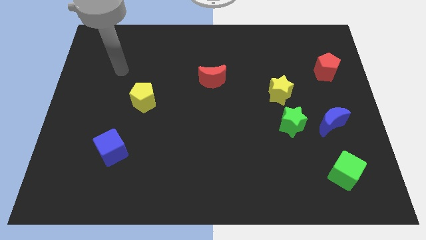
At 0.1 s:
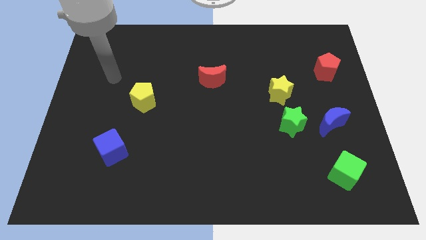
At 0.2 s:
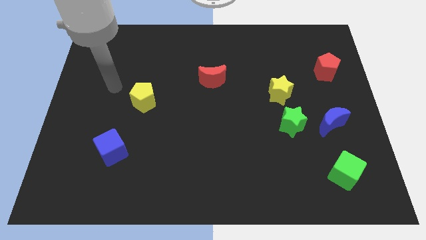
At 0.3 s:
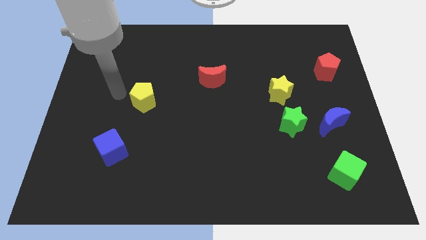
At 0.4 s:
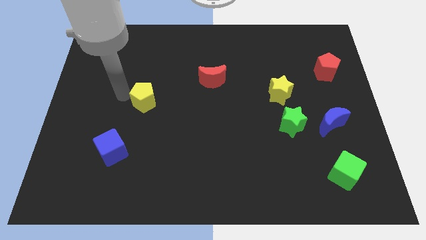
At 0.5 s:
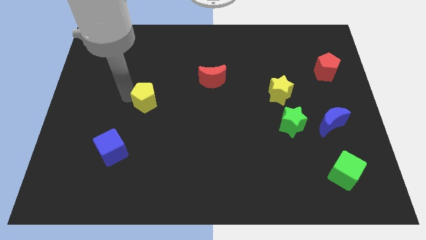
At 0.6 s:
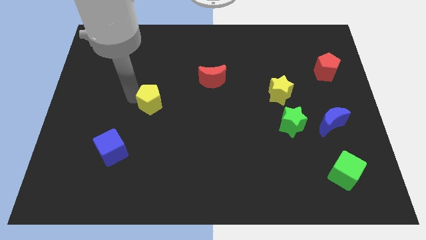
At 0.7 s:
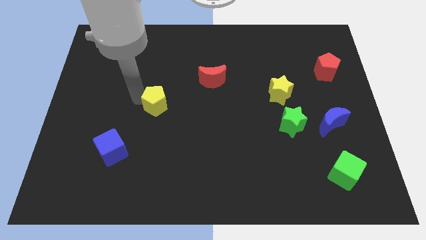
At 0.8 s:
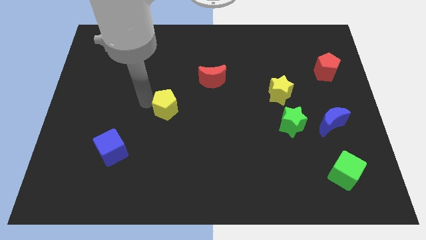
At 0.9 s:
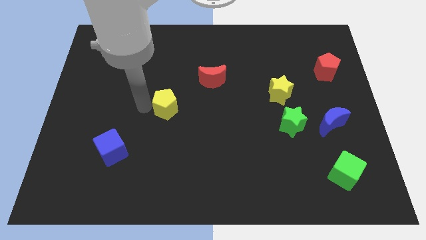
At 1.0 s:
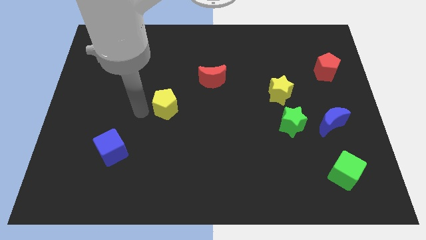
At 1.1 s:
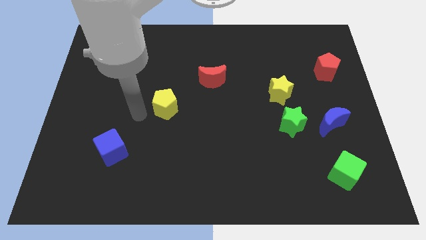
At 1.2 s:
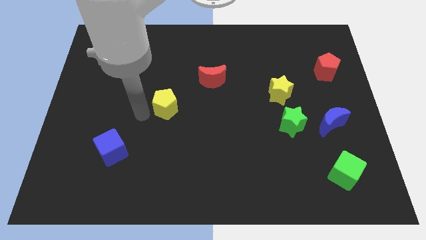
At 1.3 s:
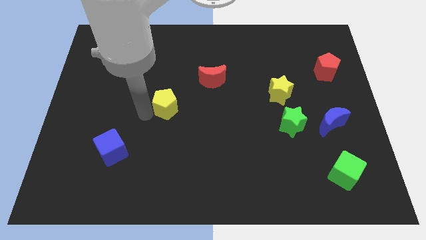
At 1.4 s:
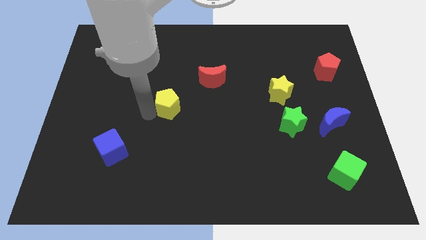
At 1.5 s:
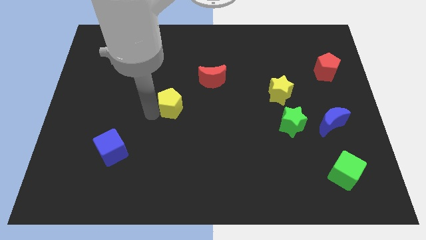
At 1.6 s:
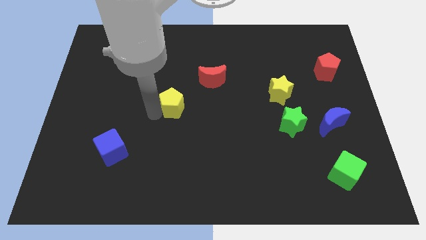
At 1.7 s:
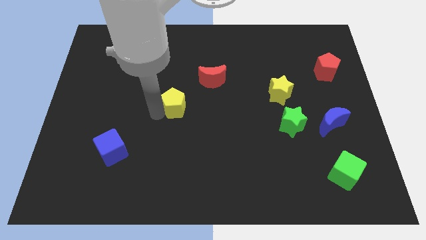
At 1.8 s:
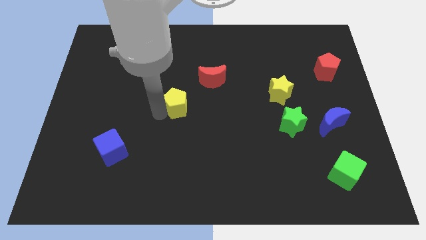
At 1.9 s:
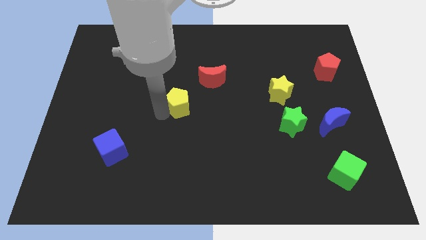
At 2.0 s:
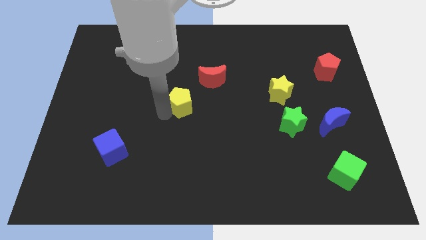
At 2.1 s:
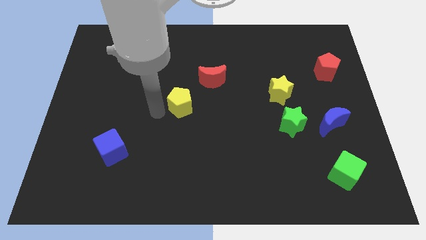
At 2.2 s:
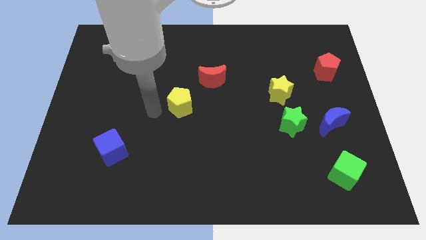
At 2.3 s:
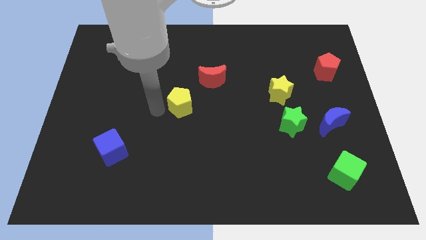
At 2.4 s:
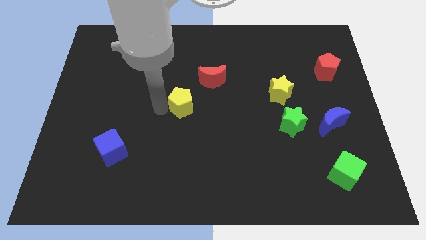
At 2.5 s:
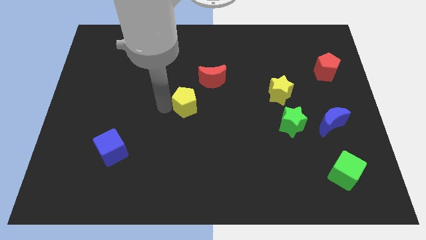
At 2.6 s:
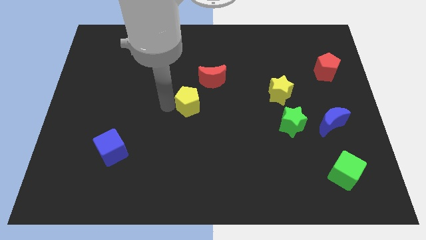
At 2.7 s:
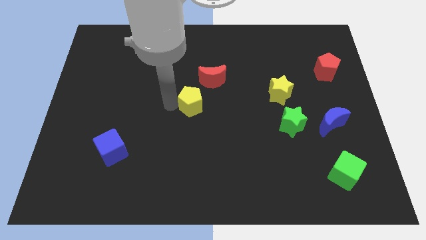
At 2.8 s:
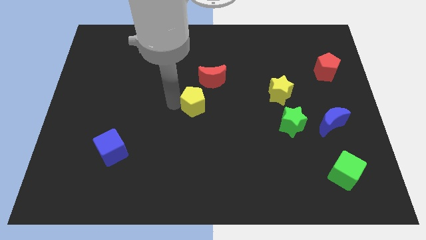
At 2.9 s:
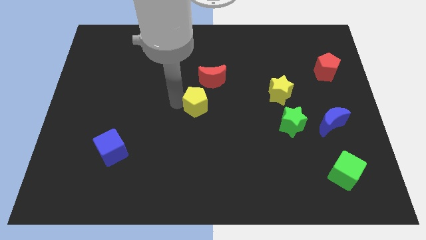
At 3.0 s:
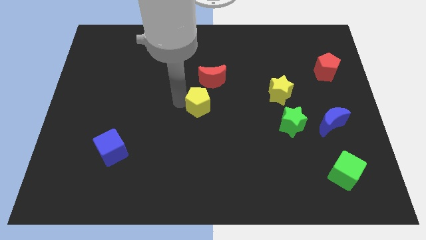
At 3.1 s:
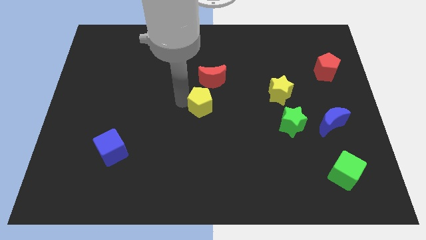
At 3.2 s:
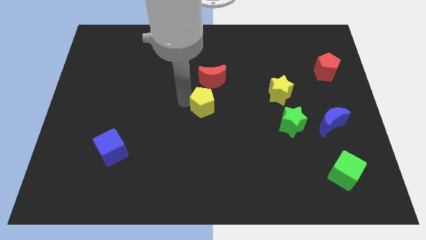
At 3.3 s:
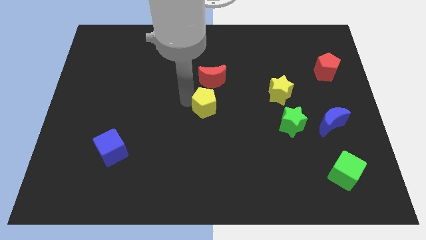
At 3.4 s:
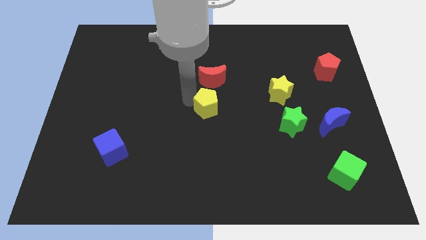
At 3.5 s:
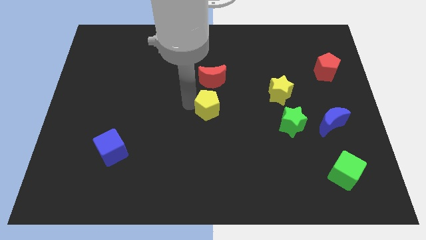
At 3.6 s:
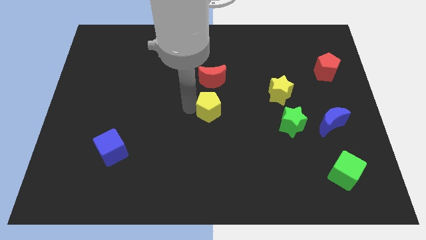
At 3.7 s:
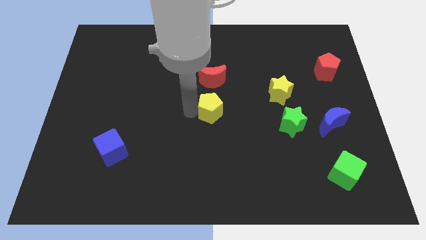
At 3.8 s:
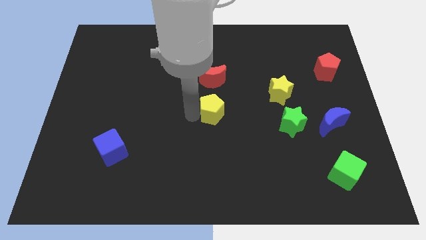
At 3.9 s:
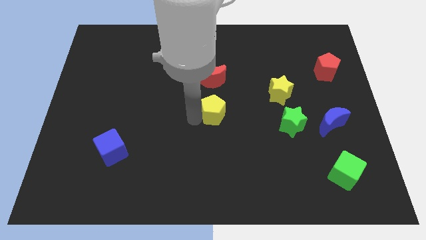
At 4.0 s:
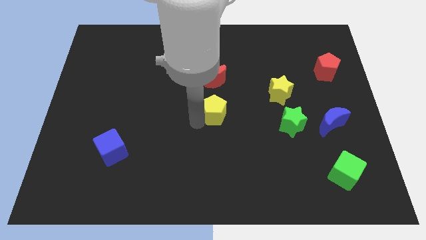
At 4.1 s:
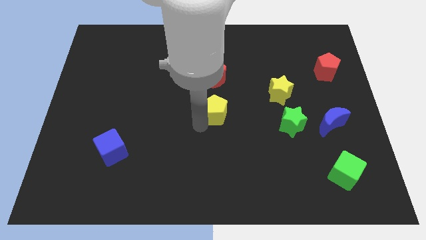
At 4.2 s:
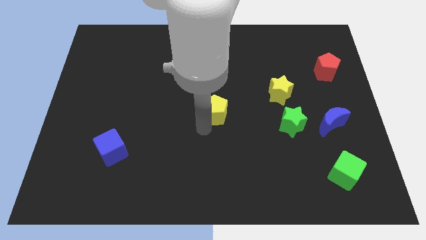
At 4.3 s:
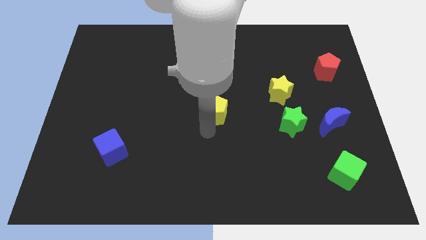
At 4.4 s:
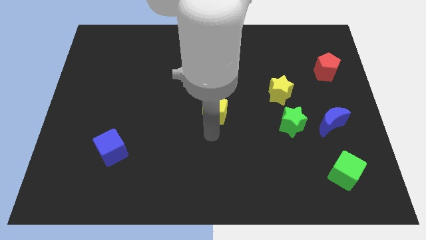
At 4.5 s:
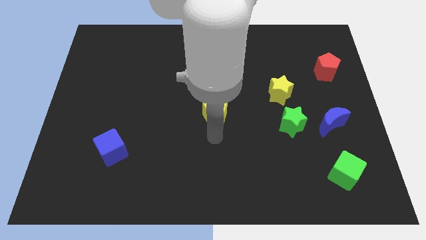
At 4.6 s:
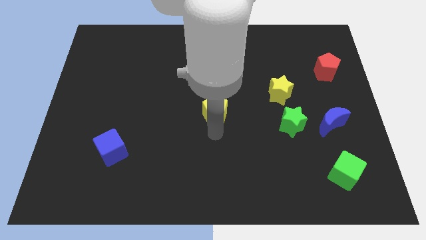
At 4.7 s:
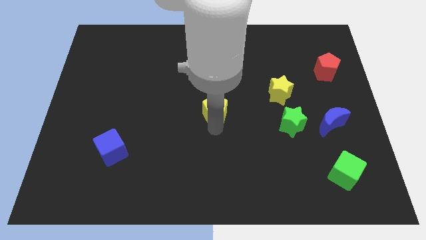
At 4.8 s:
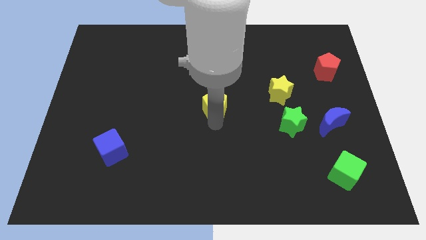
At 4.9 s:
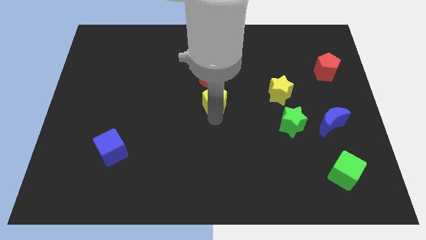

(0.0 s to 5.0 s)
slide the yellow pentagon diagonally down and to the right of the red moon

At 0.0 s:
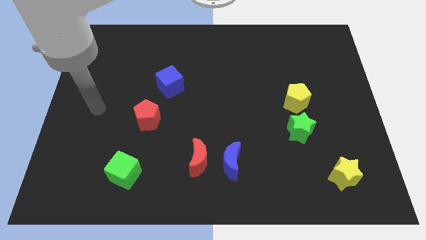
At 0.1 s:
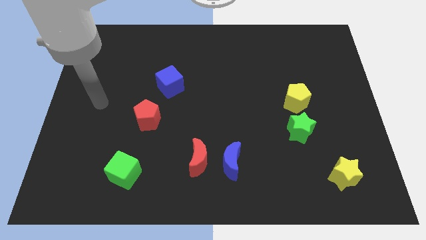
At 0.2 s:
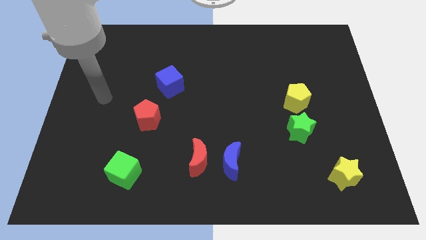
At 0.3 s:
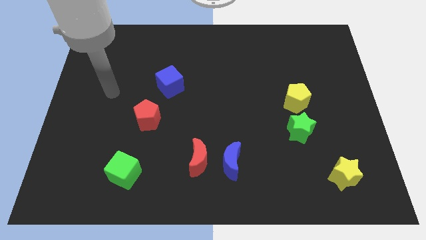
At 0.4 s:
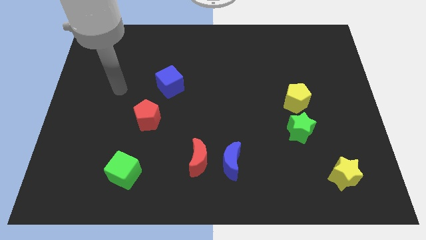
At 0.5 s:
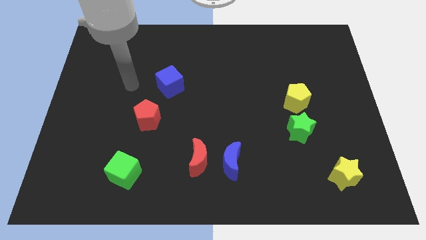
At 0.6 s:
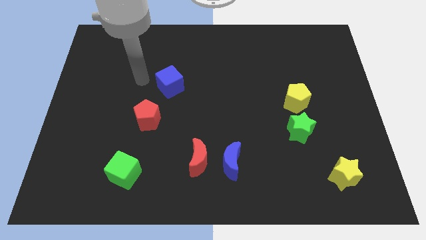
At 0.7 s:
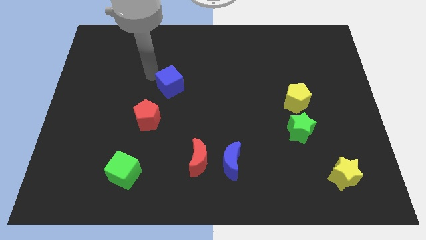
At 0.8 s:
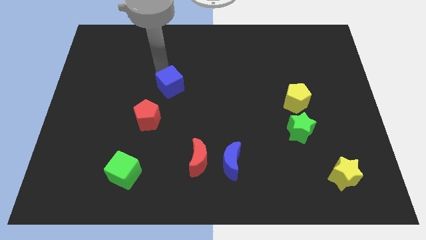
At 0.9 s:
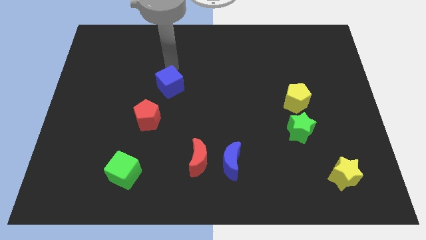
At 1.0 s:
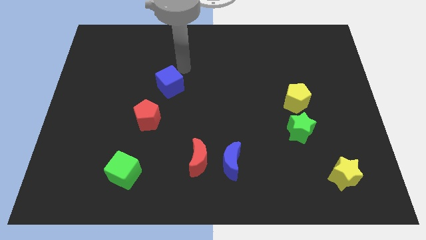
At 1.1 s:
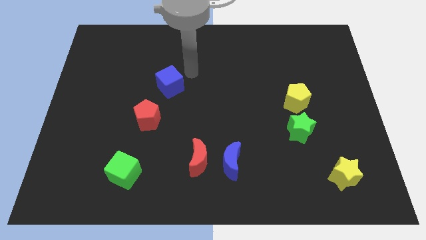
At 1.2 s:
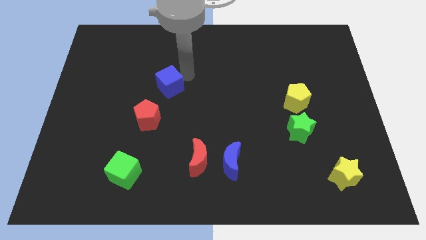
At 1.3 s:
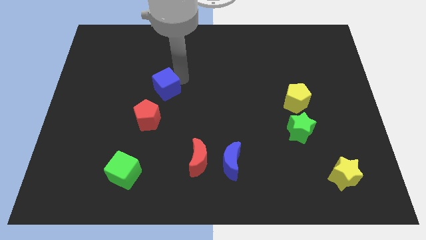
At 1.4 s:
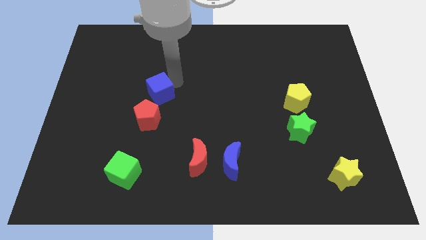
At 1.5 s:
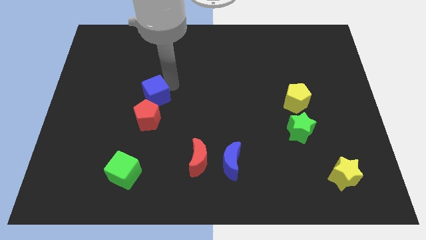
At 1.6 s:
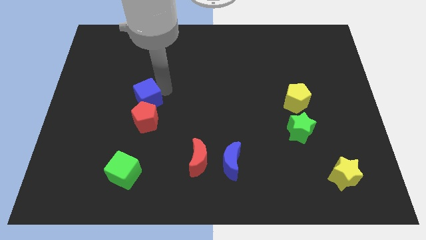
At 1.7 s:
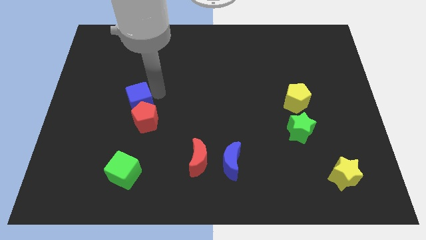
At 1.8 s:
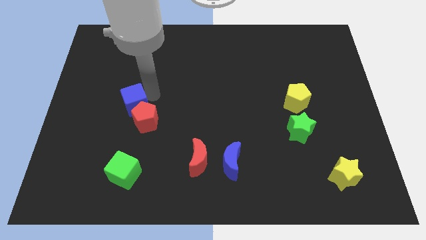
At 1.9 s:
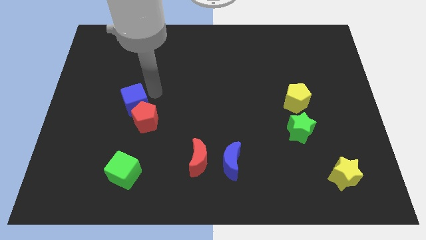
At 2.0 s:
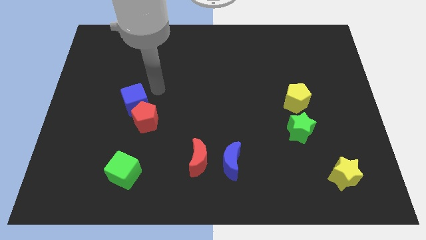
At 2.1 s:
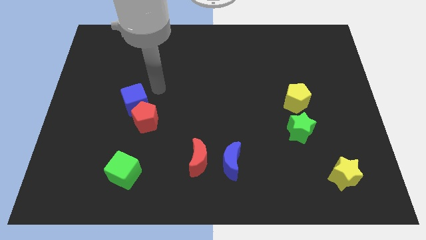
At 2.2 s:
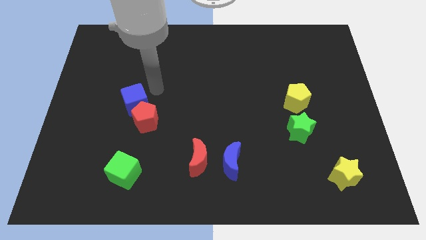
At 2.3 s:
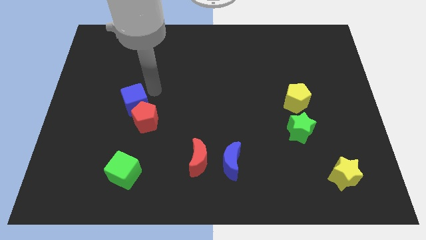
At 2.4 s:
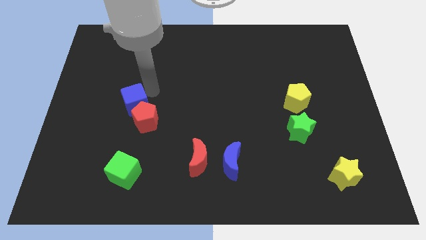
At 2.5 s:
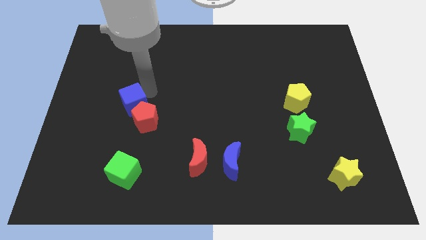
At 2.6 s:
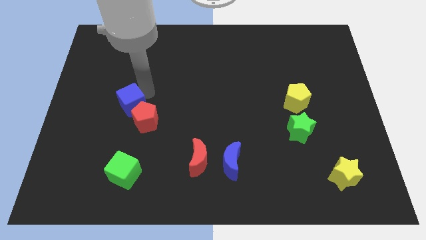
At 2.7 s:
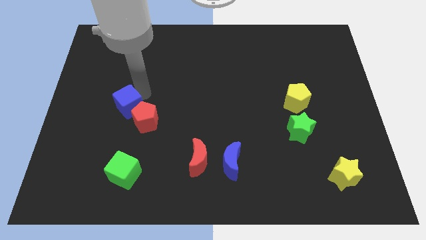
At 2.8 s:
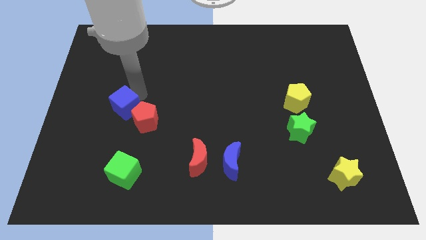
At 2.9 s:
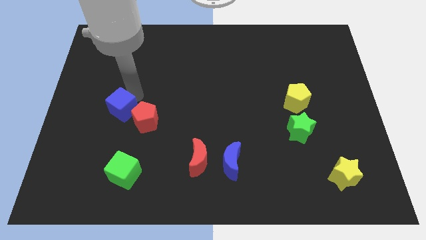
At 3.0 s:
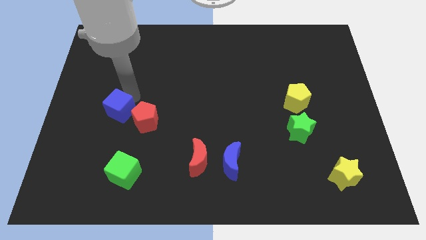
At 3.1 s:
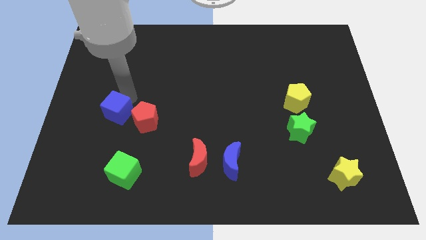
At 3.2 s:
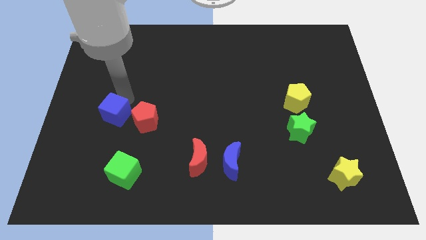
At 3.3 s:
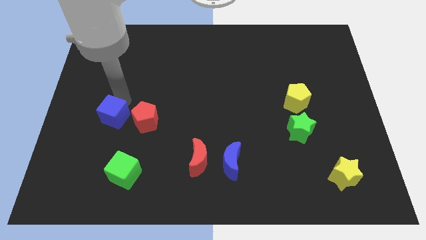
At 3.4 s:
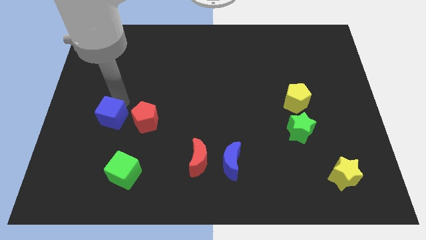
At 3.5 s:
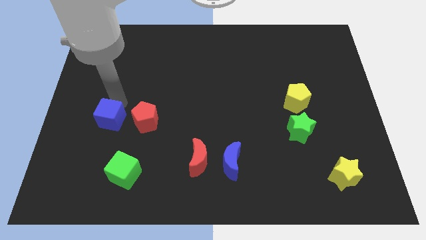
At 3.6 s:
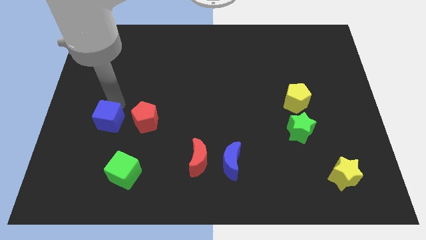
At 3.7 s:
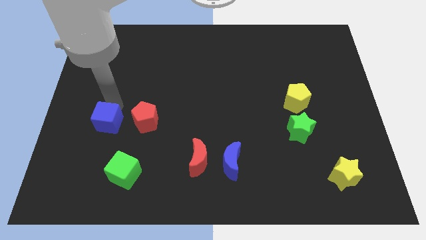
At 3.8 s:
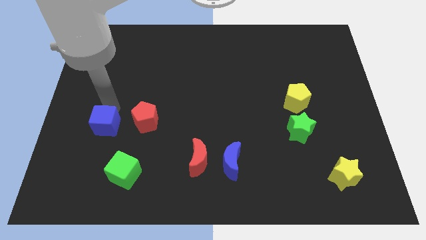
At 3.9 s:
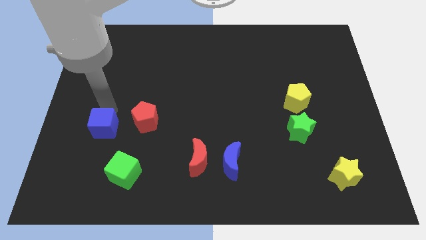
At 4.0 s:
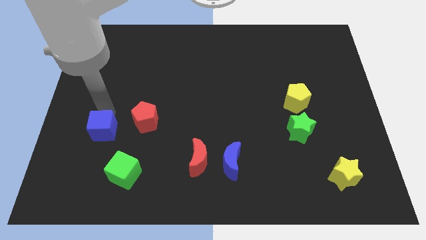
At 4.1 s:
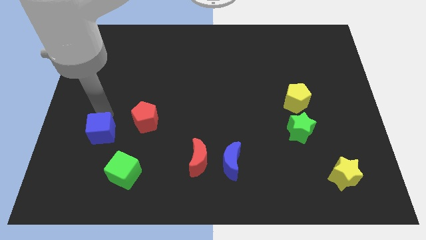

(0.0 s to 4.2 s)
push the blue cube diagonally up and to the left of the green cube
